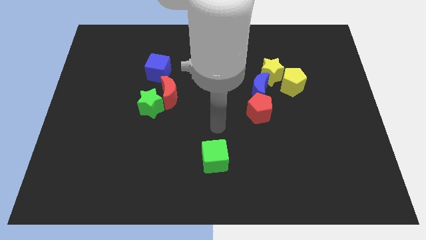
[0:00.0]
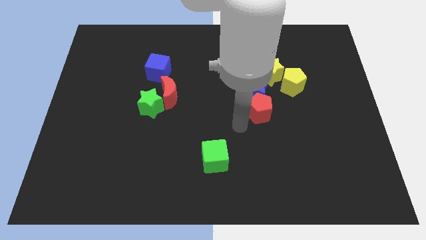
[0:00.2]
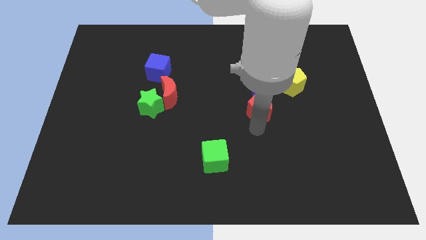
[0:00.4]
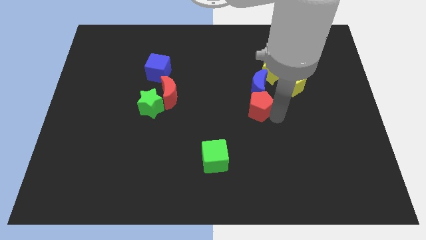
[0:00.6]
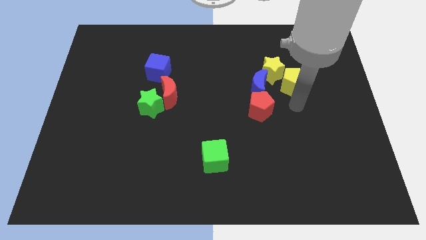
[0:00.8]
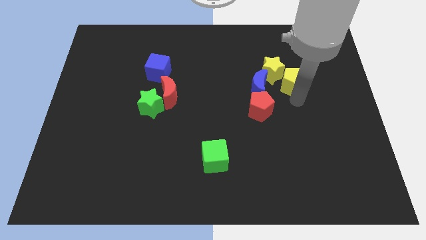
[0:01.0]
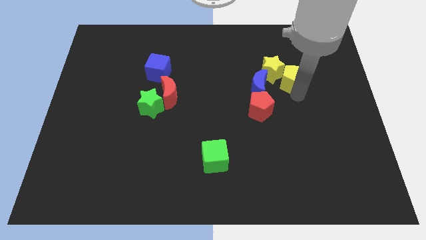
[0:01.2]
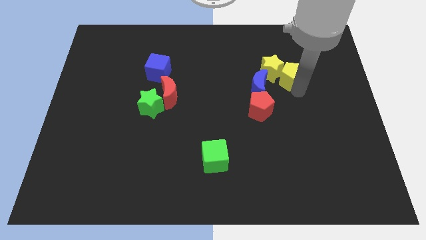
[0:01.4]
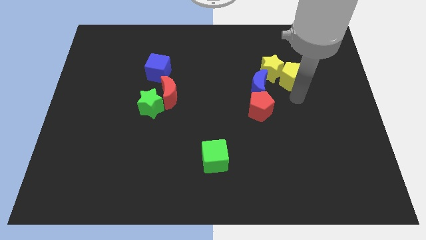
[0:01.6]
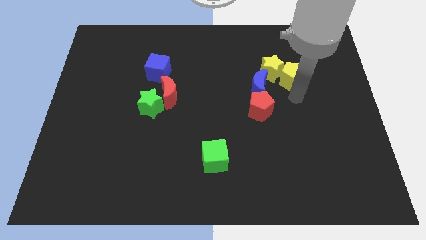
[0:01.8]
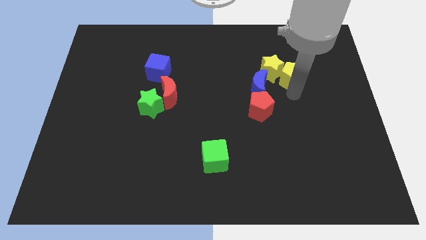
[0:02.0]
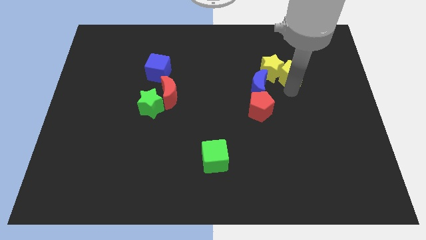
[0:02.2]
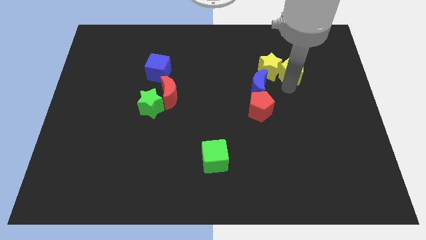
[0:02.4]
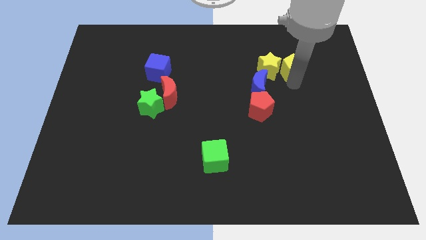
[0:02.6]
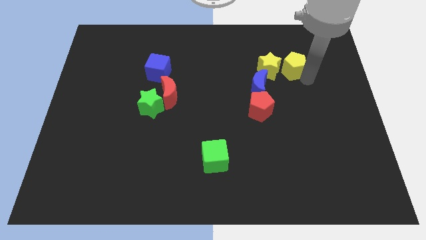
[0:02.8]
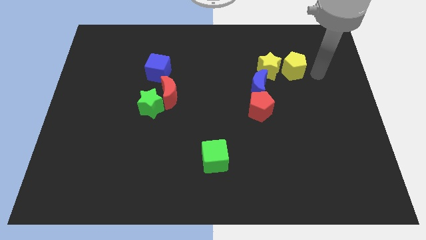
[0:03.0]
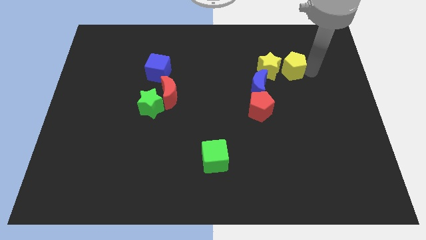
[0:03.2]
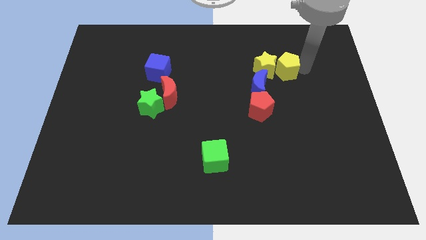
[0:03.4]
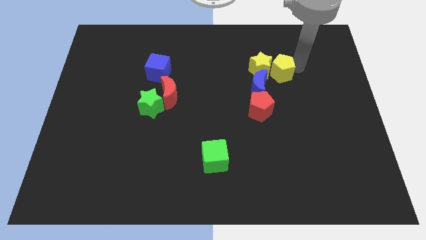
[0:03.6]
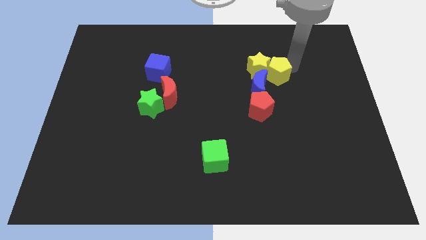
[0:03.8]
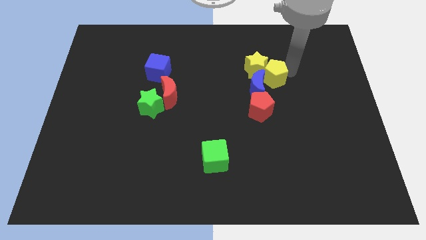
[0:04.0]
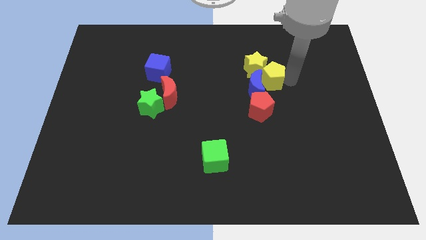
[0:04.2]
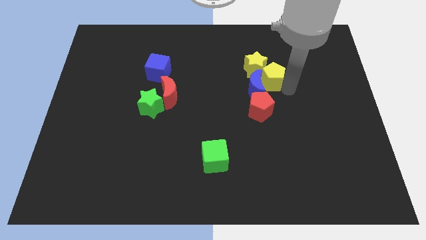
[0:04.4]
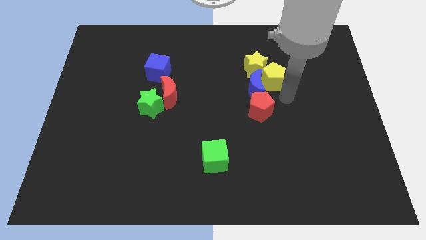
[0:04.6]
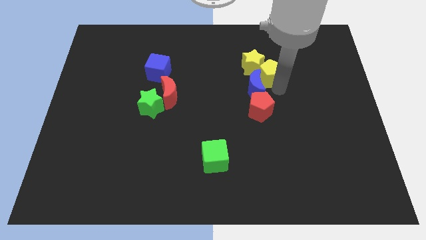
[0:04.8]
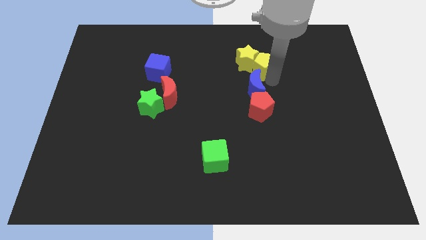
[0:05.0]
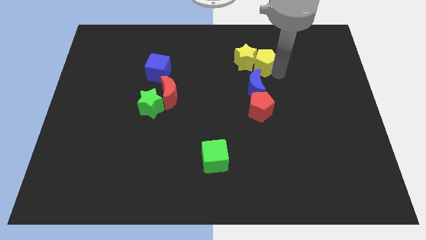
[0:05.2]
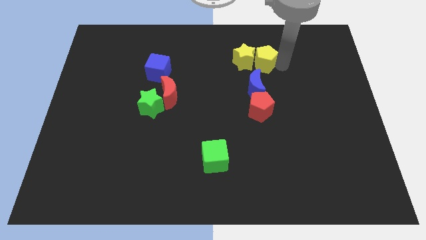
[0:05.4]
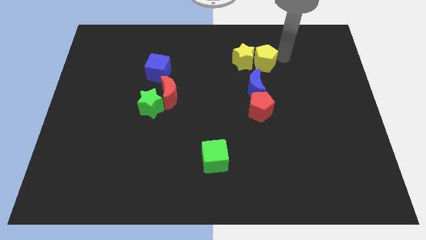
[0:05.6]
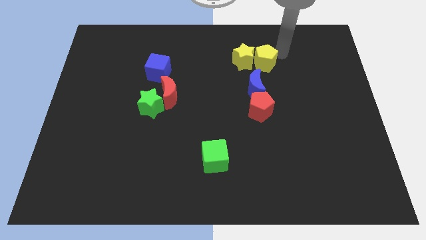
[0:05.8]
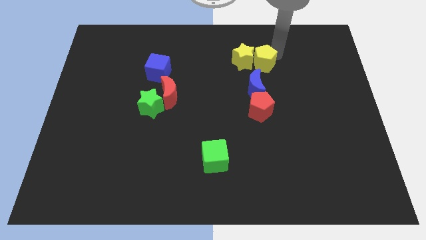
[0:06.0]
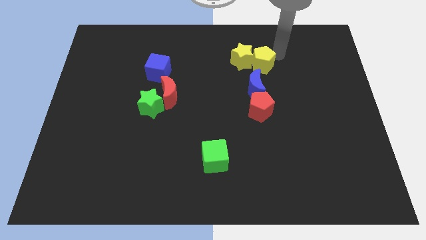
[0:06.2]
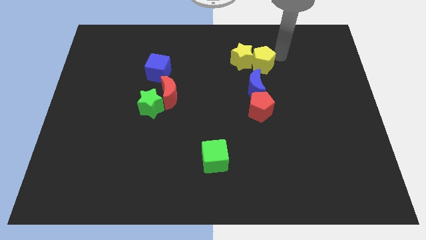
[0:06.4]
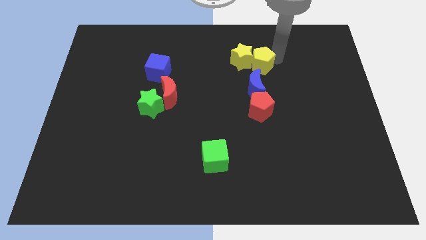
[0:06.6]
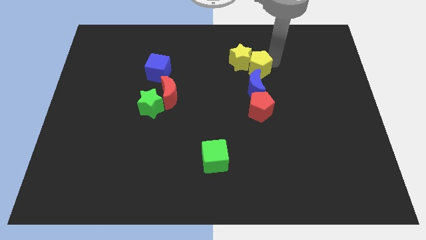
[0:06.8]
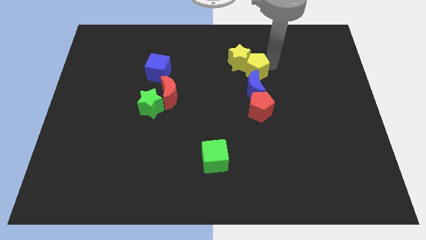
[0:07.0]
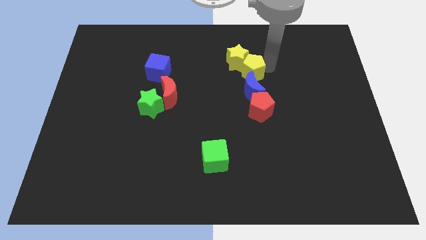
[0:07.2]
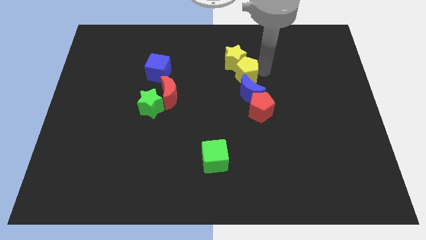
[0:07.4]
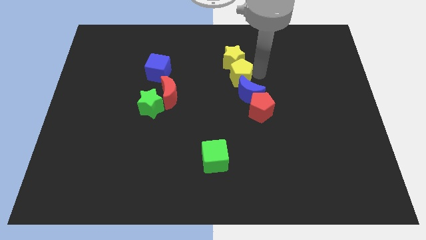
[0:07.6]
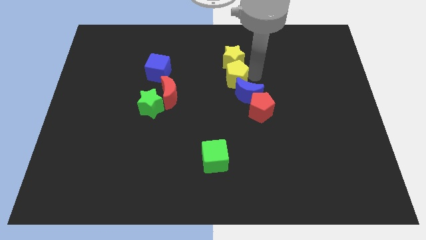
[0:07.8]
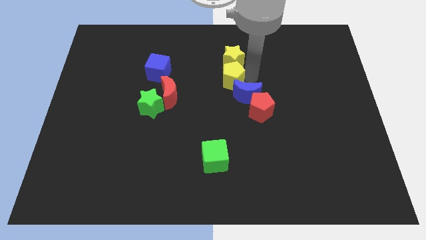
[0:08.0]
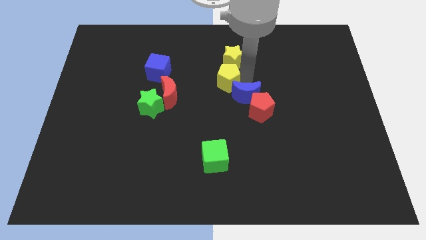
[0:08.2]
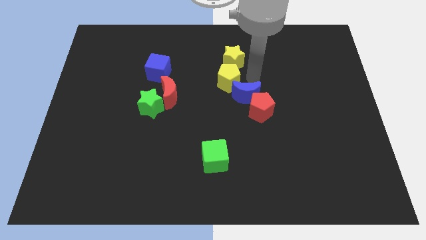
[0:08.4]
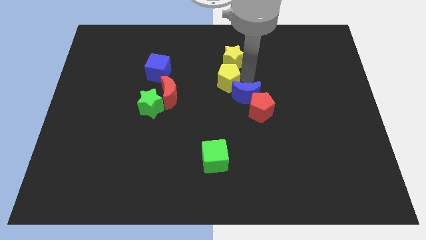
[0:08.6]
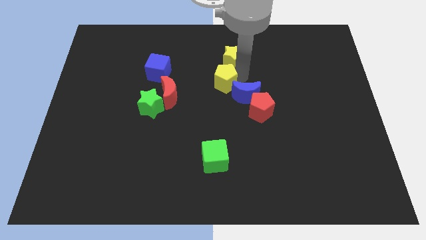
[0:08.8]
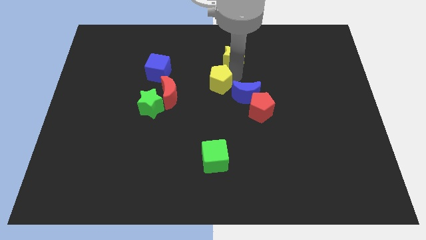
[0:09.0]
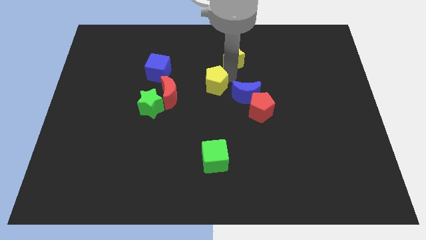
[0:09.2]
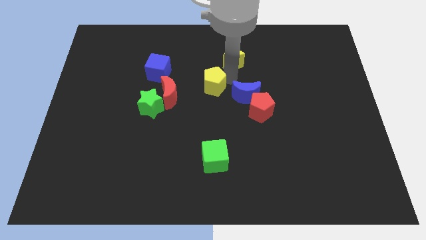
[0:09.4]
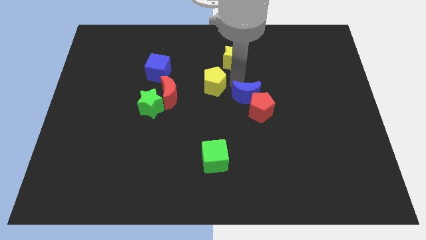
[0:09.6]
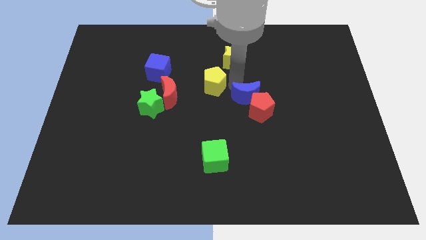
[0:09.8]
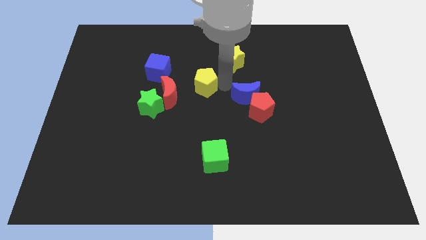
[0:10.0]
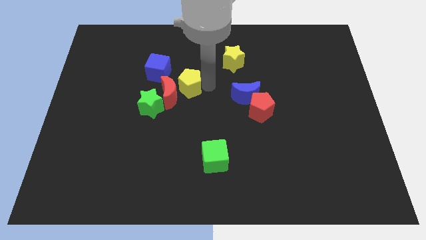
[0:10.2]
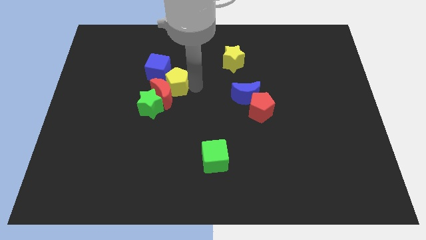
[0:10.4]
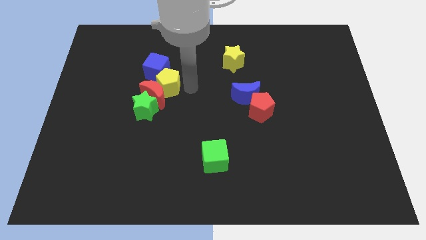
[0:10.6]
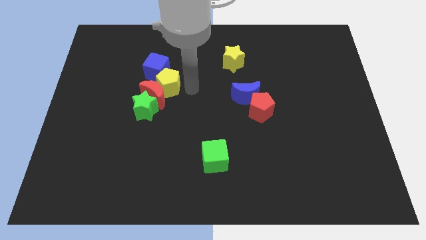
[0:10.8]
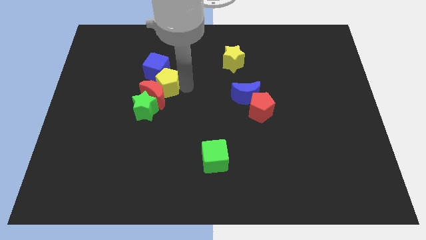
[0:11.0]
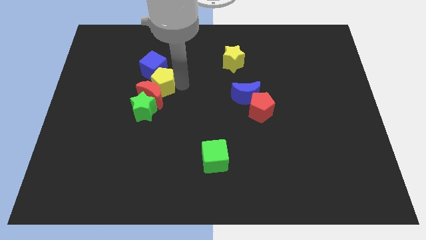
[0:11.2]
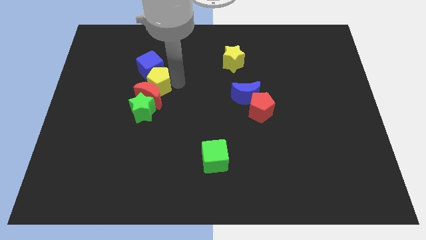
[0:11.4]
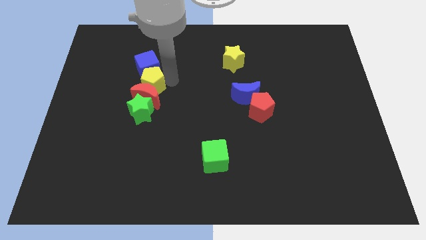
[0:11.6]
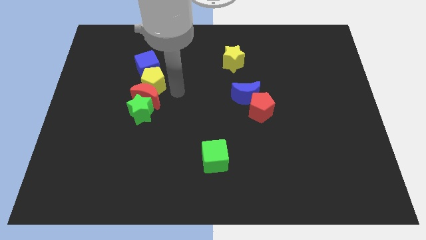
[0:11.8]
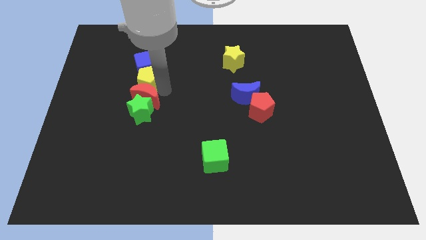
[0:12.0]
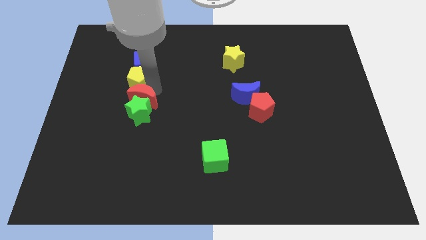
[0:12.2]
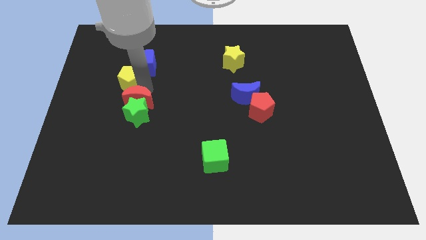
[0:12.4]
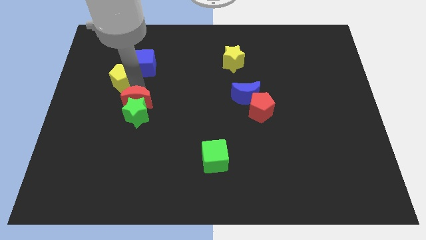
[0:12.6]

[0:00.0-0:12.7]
push the yellow pentagon to the left of the blue cube
